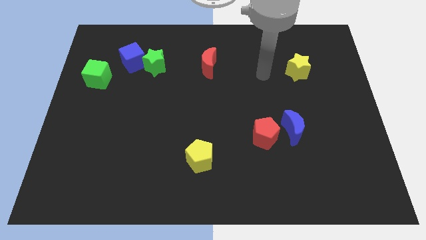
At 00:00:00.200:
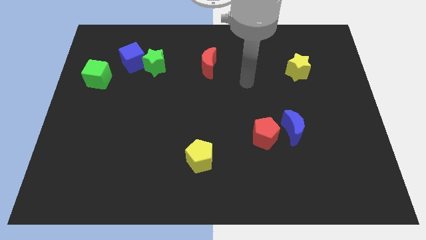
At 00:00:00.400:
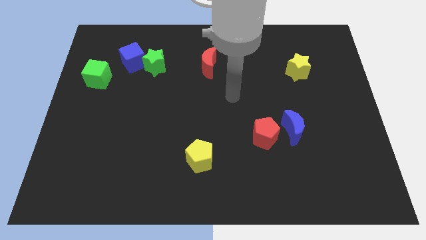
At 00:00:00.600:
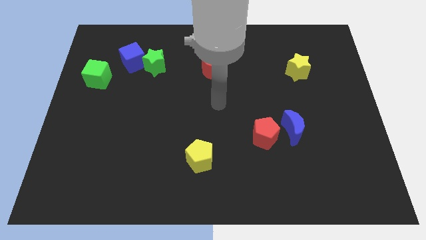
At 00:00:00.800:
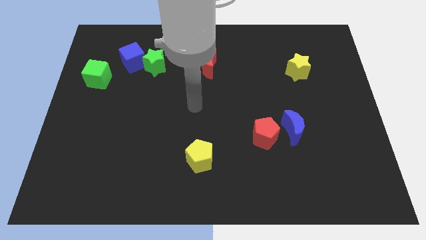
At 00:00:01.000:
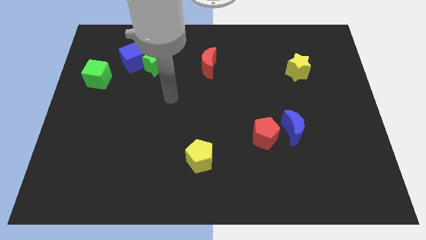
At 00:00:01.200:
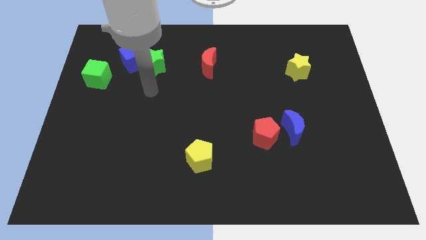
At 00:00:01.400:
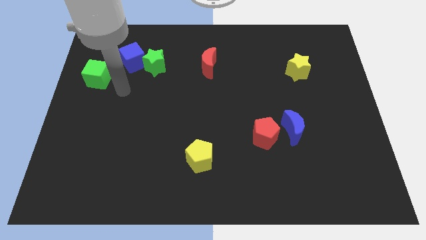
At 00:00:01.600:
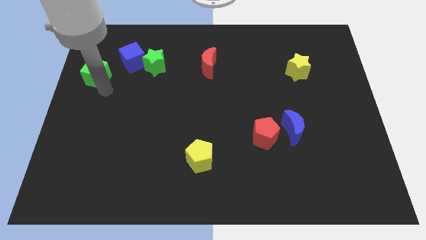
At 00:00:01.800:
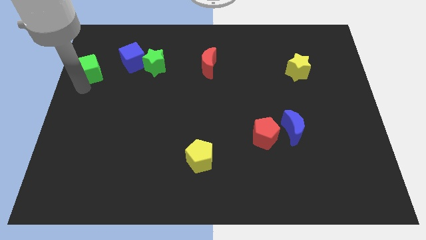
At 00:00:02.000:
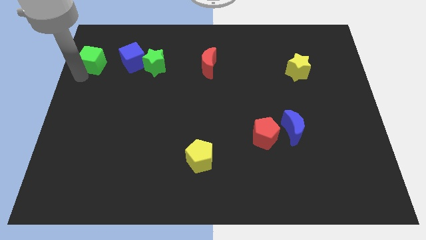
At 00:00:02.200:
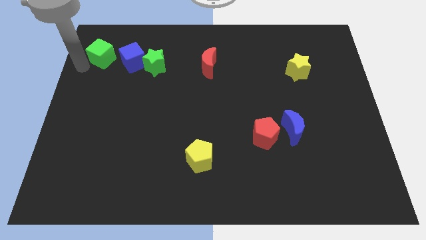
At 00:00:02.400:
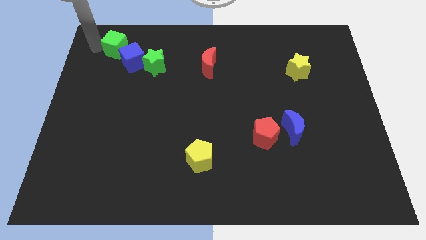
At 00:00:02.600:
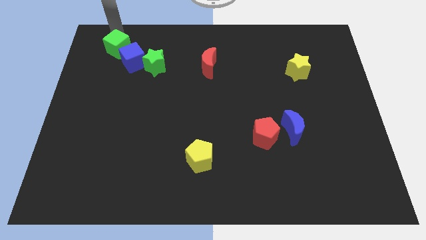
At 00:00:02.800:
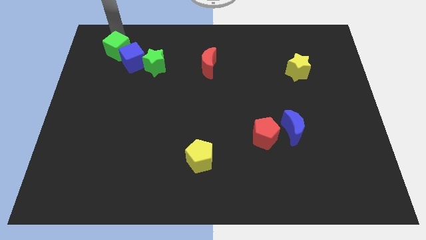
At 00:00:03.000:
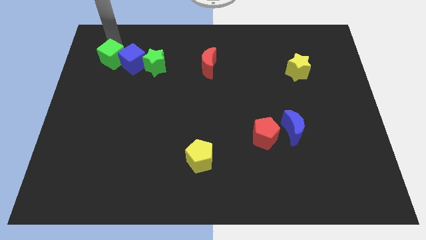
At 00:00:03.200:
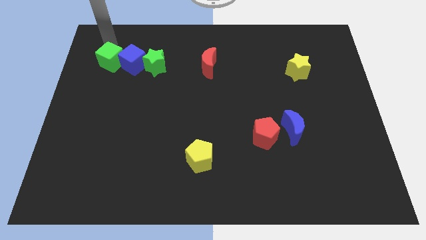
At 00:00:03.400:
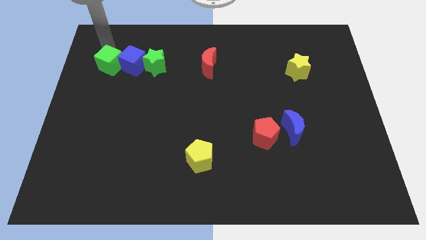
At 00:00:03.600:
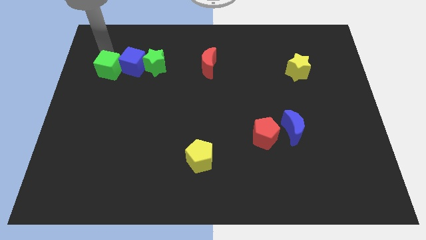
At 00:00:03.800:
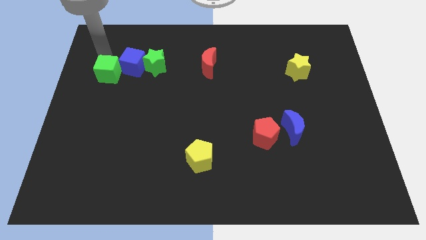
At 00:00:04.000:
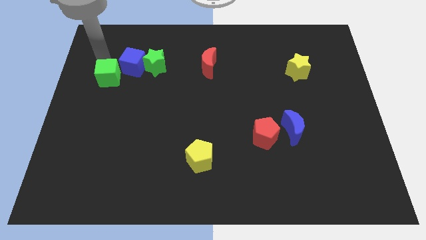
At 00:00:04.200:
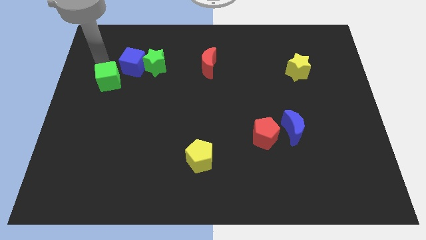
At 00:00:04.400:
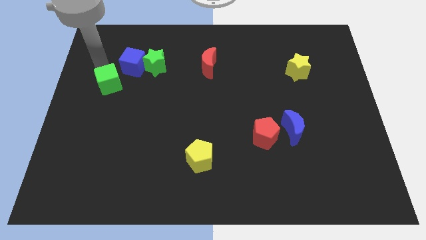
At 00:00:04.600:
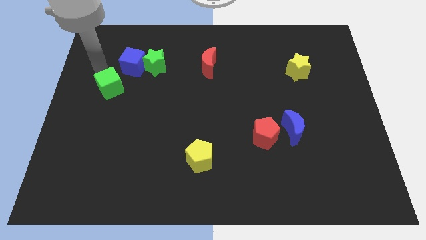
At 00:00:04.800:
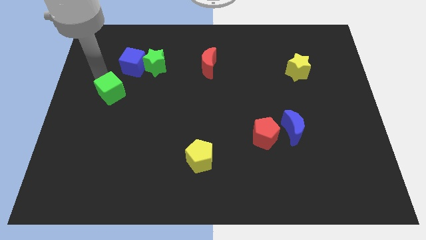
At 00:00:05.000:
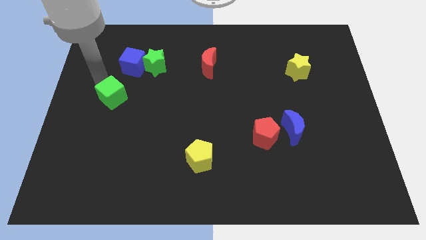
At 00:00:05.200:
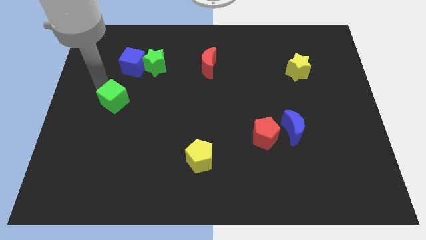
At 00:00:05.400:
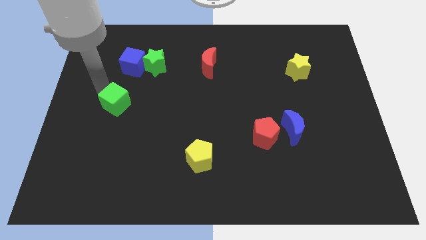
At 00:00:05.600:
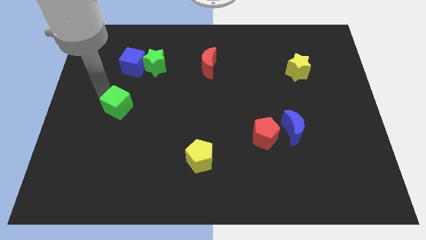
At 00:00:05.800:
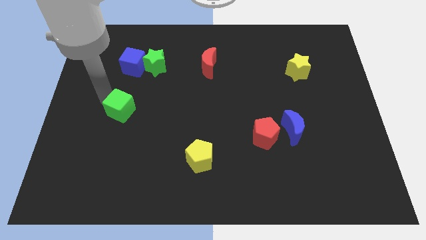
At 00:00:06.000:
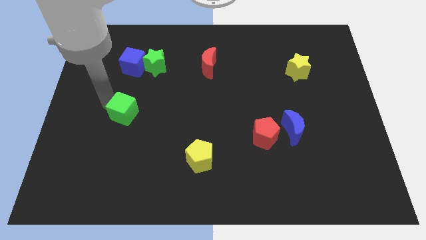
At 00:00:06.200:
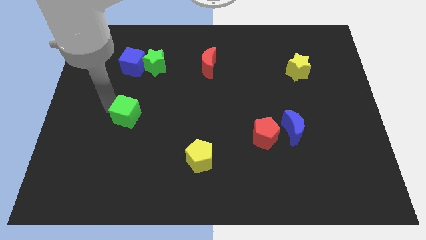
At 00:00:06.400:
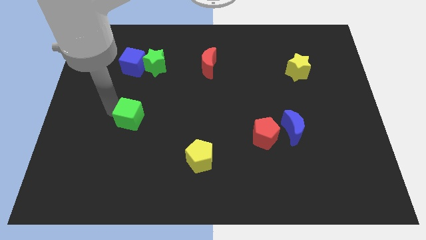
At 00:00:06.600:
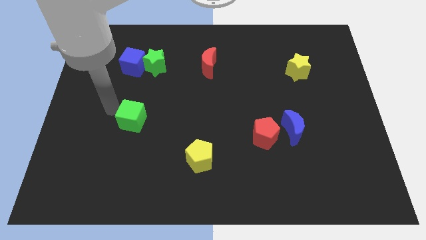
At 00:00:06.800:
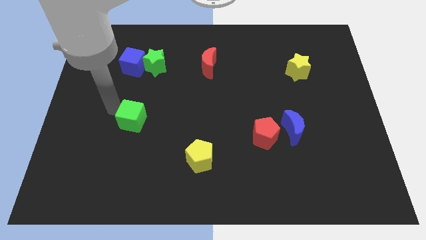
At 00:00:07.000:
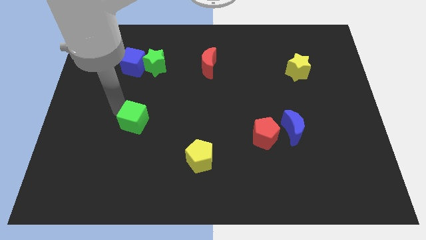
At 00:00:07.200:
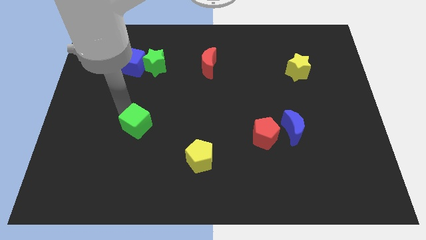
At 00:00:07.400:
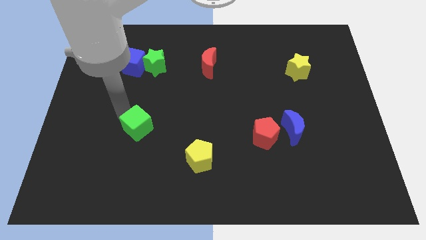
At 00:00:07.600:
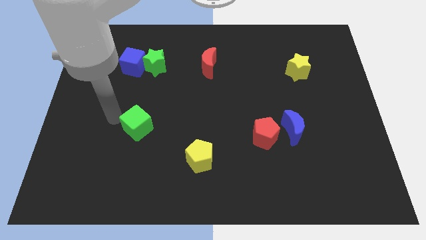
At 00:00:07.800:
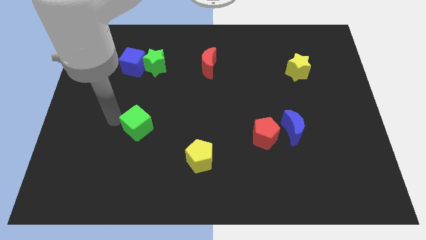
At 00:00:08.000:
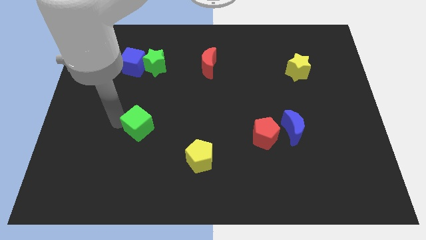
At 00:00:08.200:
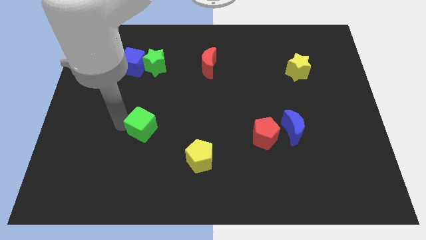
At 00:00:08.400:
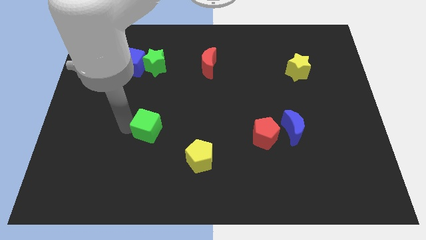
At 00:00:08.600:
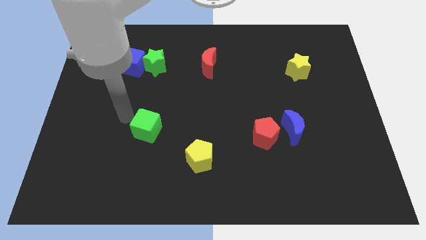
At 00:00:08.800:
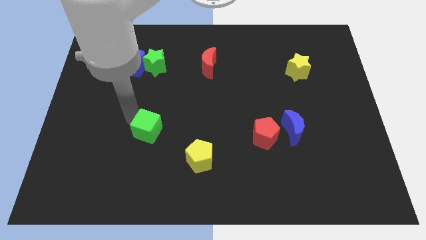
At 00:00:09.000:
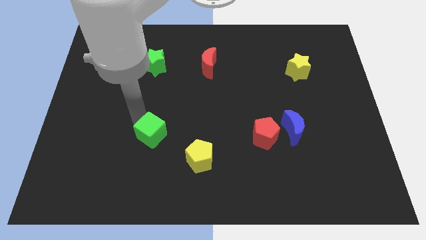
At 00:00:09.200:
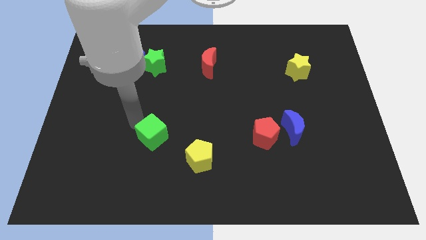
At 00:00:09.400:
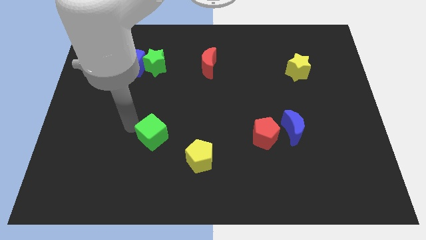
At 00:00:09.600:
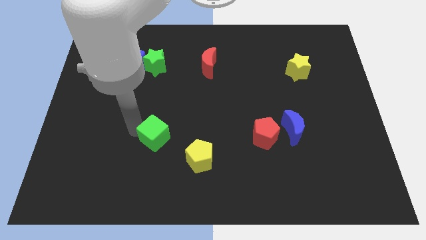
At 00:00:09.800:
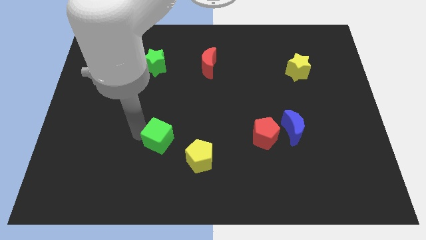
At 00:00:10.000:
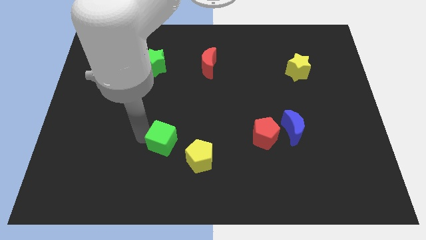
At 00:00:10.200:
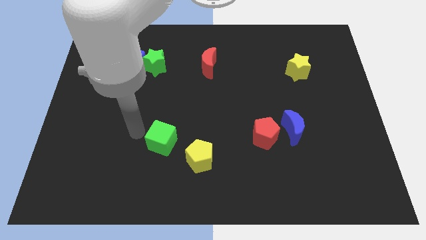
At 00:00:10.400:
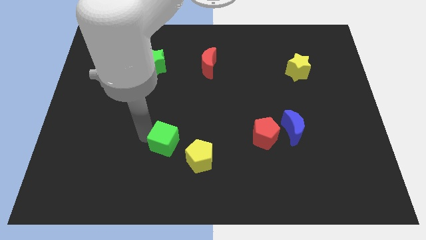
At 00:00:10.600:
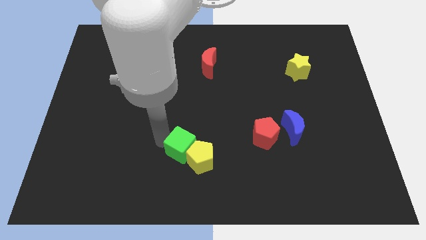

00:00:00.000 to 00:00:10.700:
put the green cube towards the yellow pentagon

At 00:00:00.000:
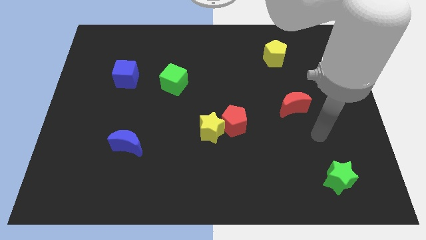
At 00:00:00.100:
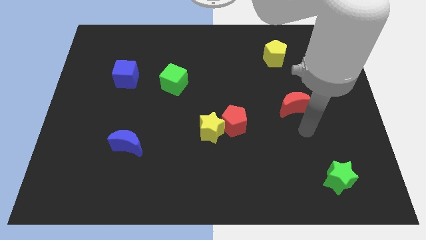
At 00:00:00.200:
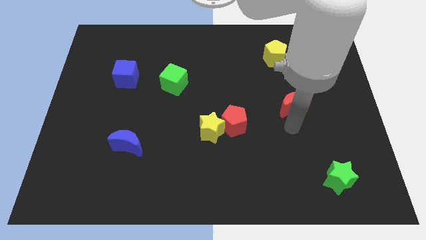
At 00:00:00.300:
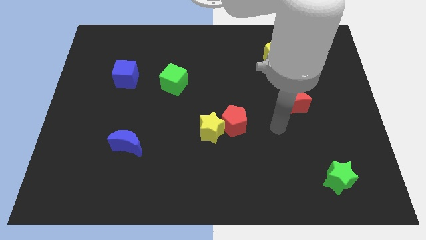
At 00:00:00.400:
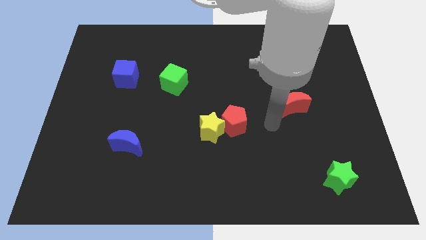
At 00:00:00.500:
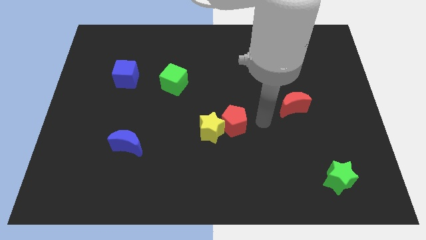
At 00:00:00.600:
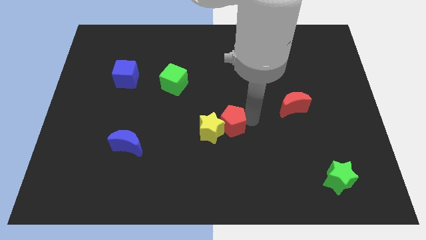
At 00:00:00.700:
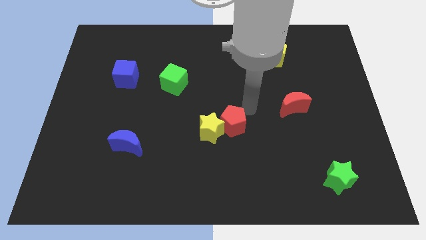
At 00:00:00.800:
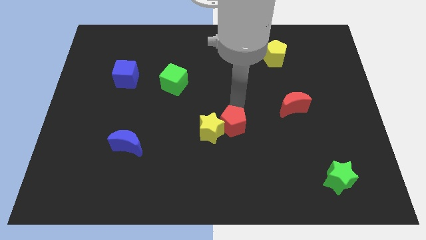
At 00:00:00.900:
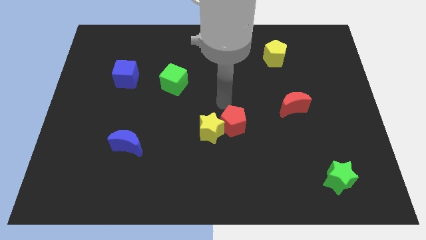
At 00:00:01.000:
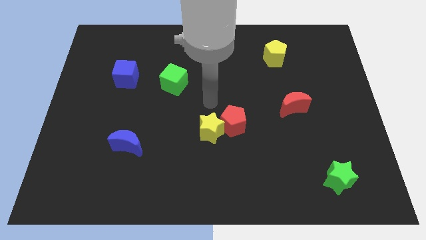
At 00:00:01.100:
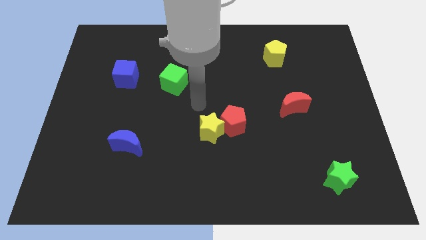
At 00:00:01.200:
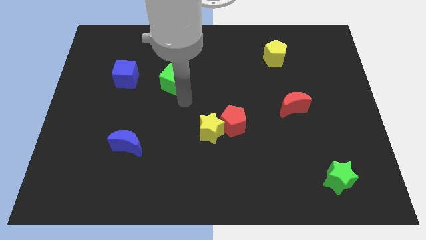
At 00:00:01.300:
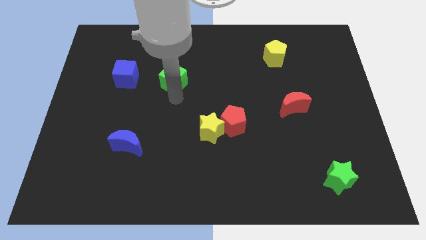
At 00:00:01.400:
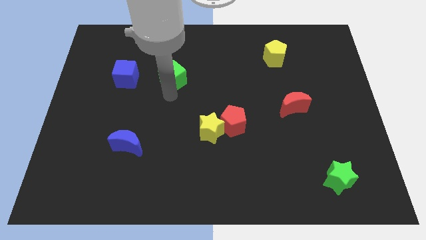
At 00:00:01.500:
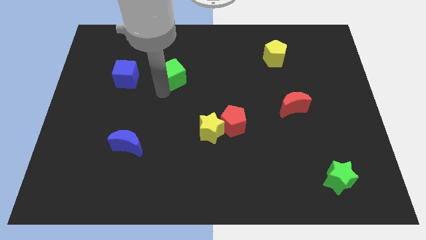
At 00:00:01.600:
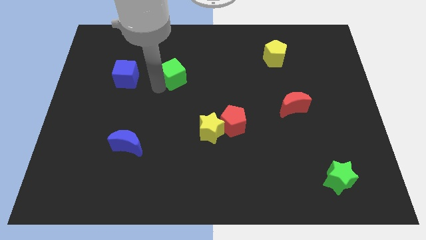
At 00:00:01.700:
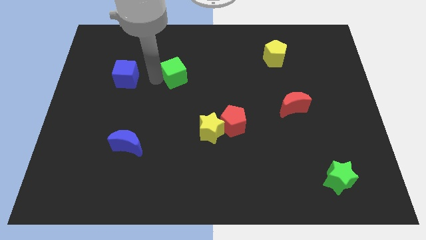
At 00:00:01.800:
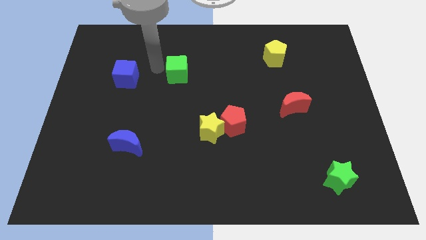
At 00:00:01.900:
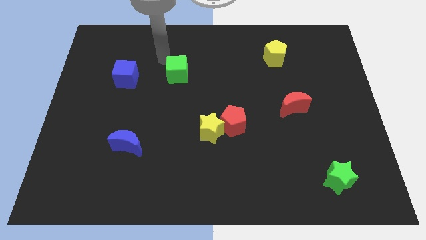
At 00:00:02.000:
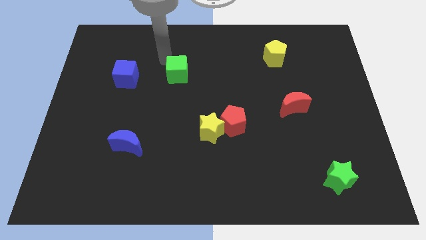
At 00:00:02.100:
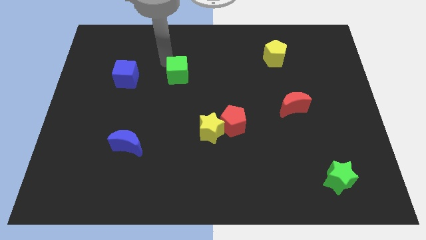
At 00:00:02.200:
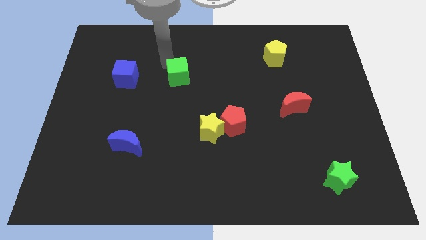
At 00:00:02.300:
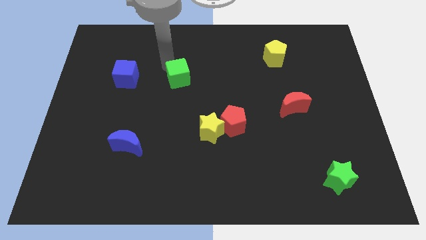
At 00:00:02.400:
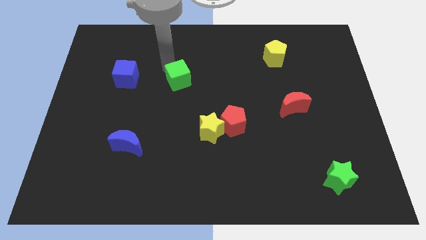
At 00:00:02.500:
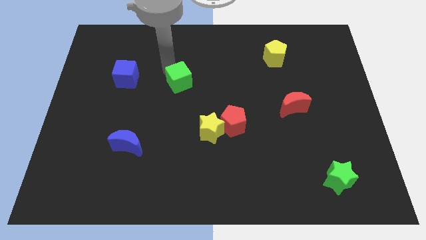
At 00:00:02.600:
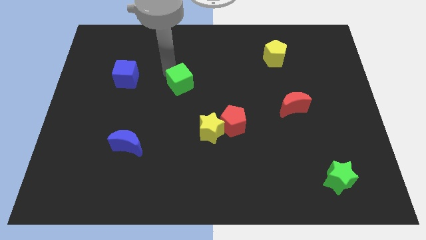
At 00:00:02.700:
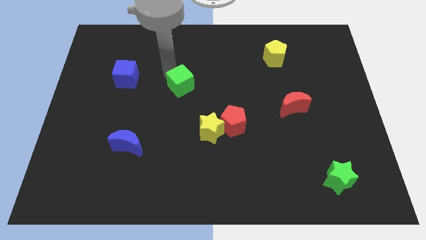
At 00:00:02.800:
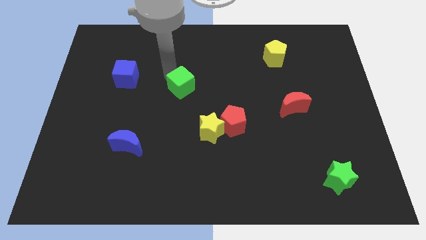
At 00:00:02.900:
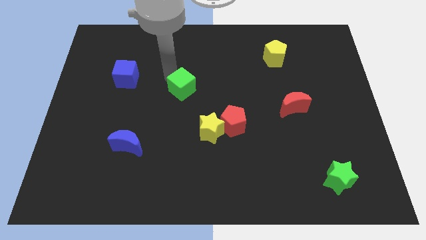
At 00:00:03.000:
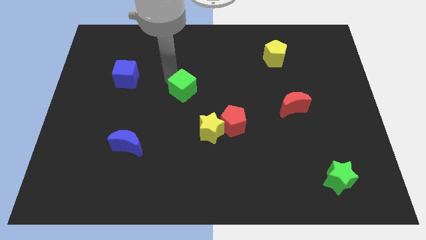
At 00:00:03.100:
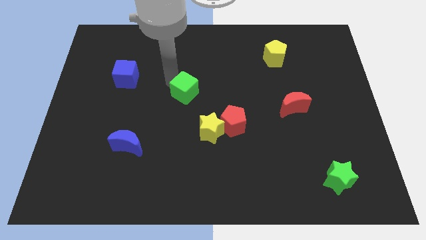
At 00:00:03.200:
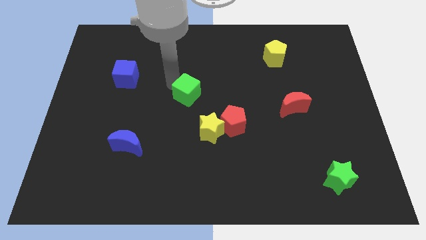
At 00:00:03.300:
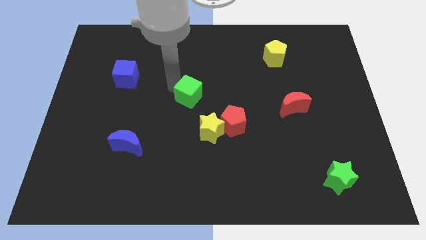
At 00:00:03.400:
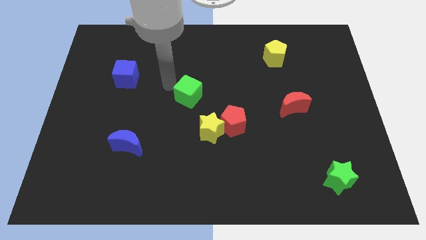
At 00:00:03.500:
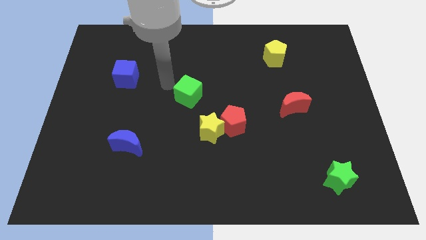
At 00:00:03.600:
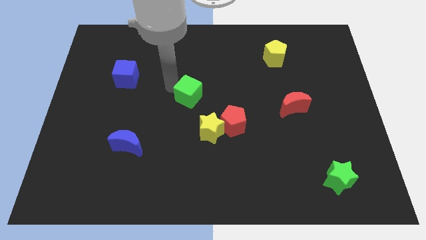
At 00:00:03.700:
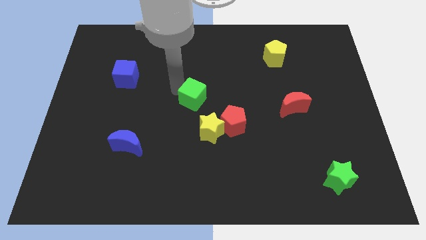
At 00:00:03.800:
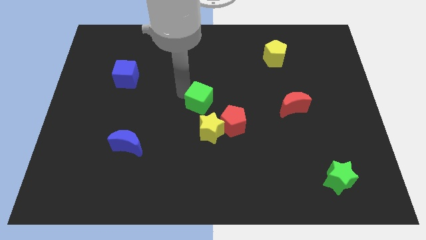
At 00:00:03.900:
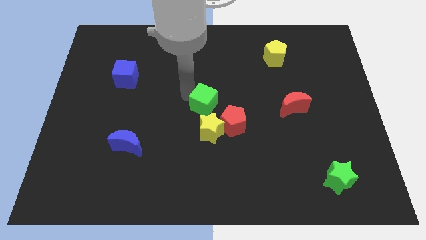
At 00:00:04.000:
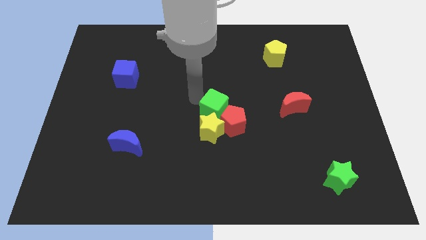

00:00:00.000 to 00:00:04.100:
slide the green cube next to the red pentagon
